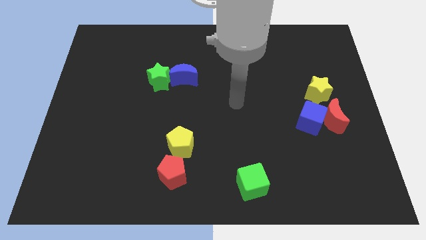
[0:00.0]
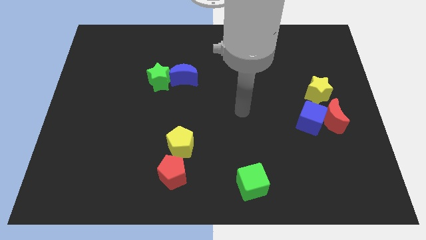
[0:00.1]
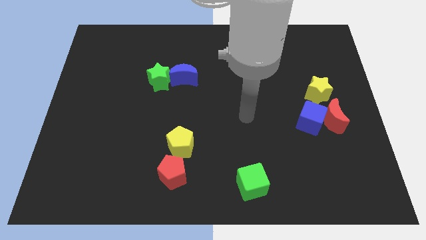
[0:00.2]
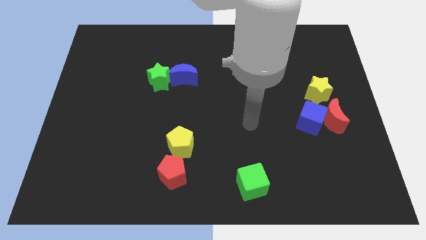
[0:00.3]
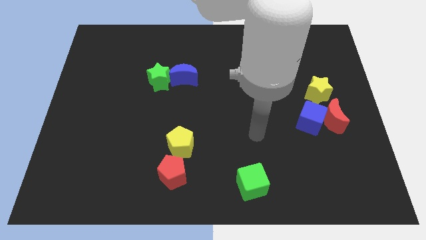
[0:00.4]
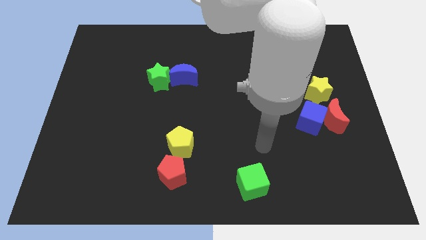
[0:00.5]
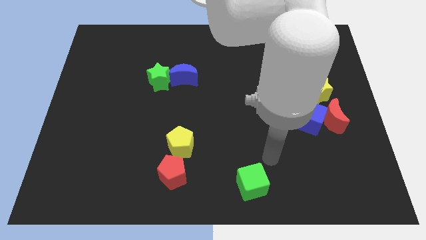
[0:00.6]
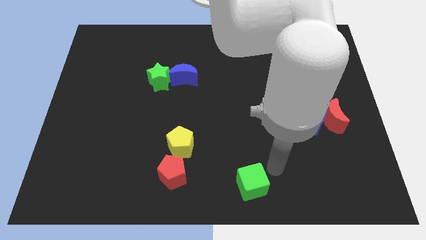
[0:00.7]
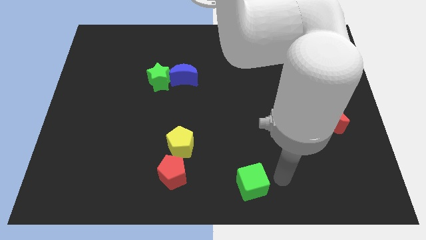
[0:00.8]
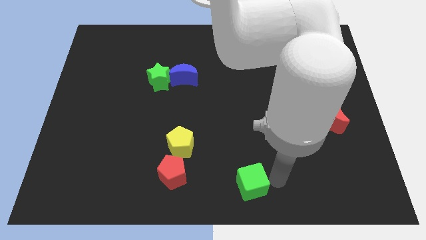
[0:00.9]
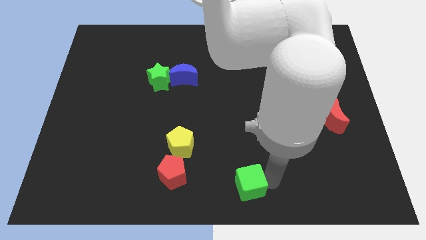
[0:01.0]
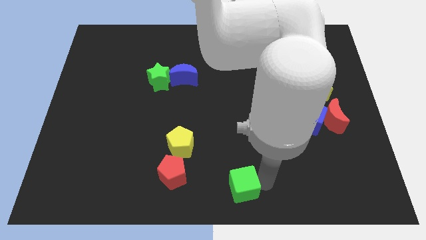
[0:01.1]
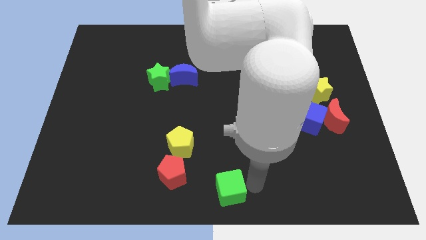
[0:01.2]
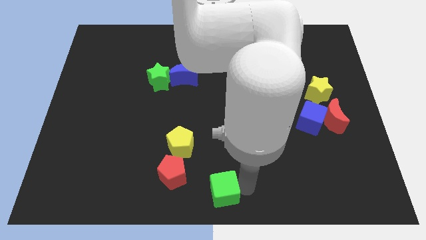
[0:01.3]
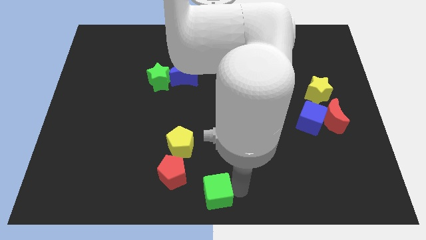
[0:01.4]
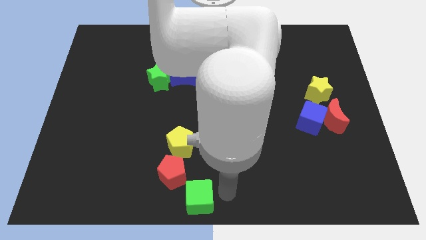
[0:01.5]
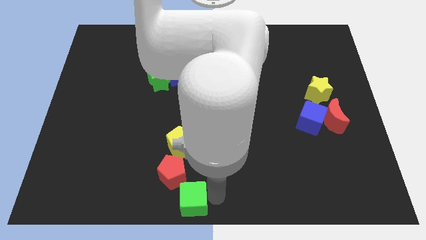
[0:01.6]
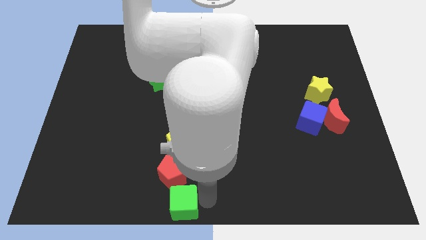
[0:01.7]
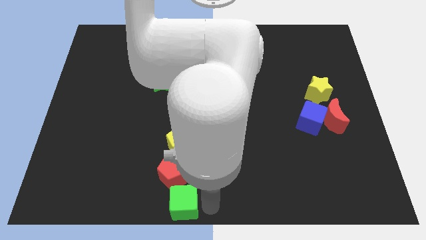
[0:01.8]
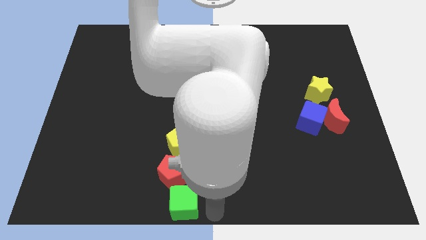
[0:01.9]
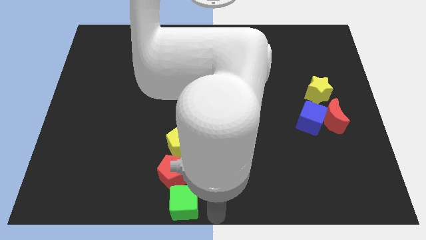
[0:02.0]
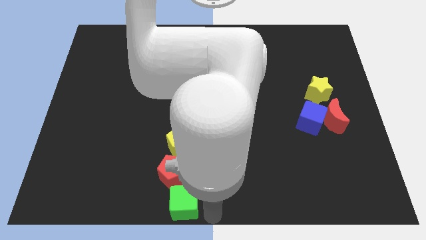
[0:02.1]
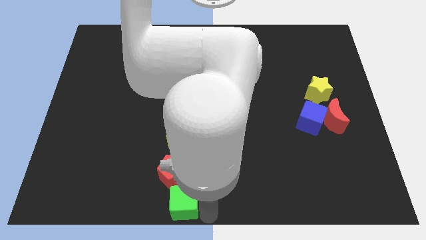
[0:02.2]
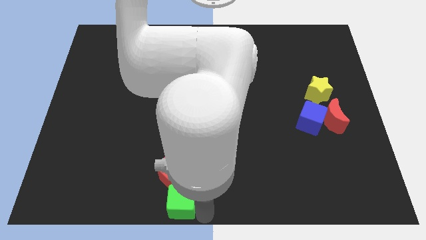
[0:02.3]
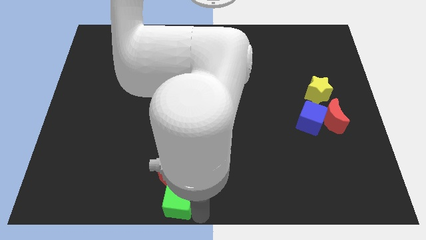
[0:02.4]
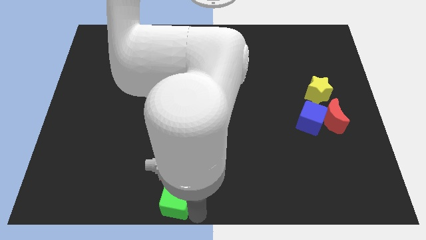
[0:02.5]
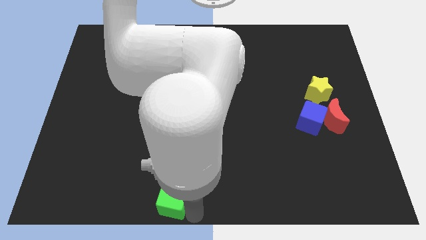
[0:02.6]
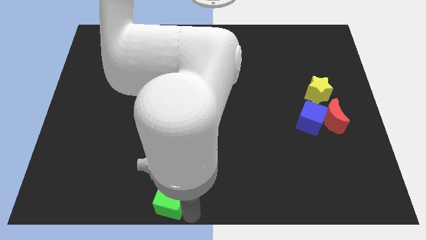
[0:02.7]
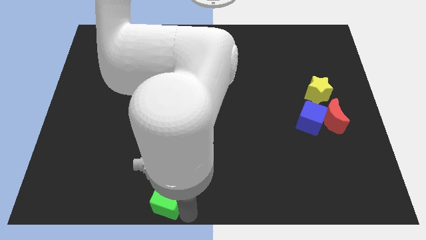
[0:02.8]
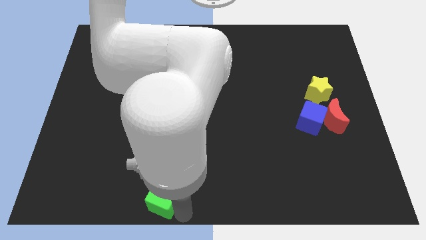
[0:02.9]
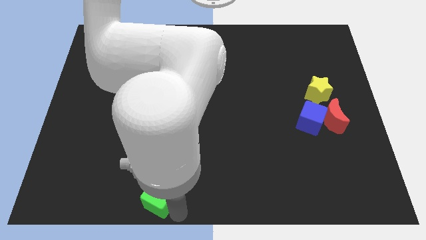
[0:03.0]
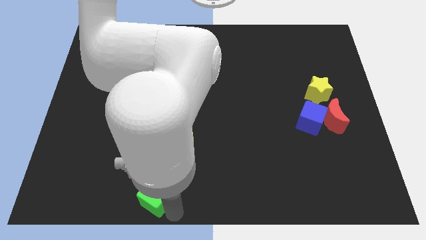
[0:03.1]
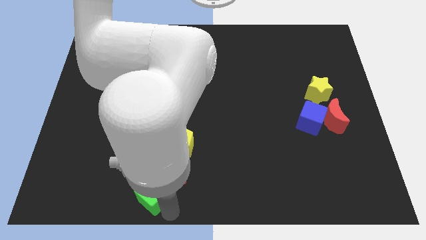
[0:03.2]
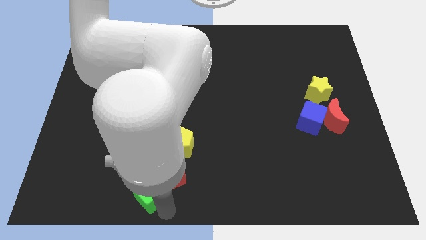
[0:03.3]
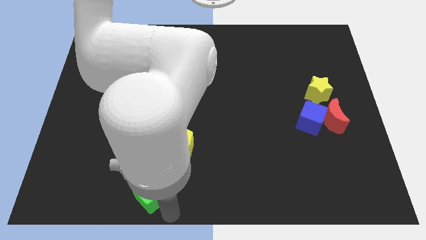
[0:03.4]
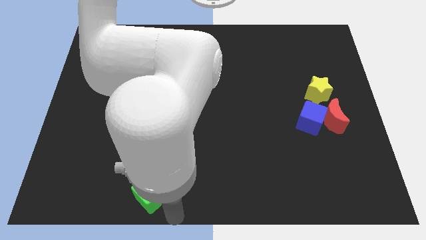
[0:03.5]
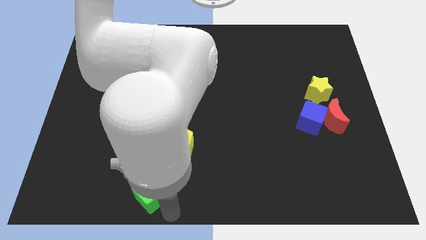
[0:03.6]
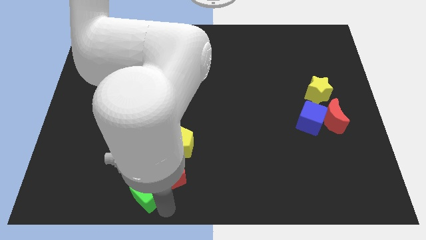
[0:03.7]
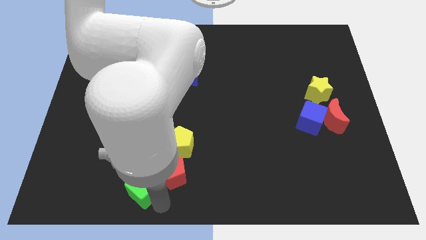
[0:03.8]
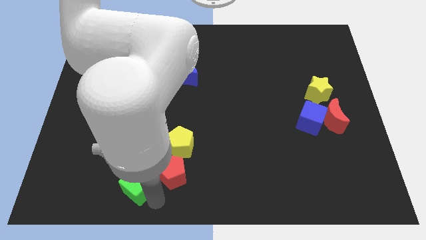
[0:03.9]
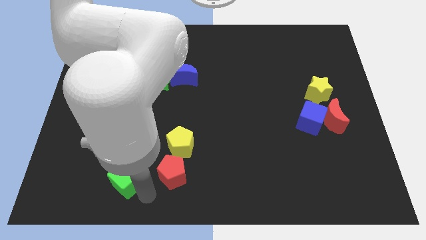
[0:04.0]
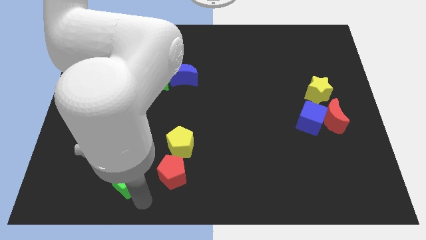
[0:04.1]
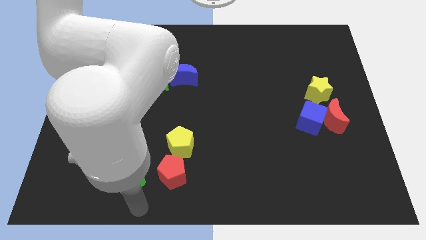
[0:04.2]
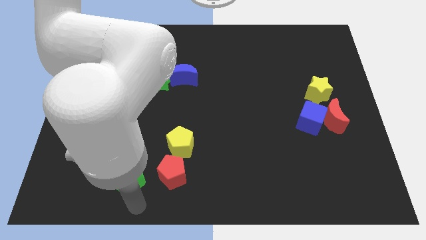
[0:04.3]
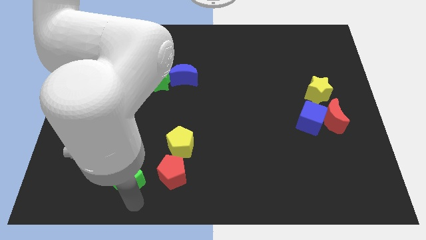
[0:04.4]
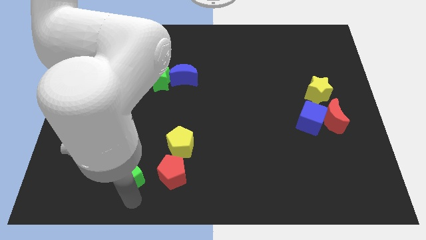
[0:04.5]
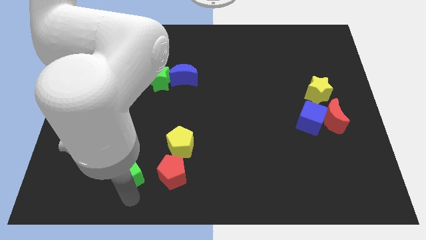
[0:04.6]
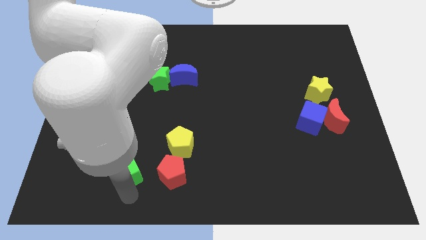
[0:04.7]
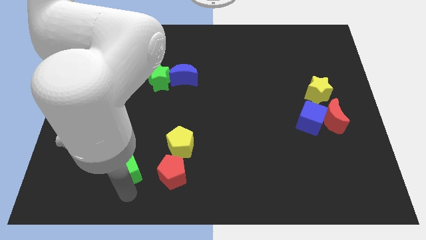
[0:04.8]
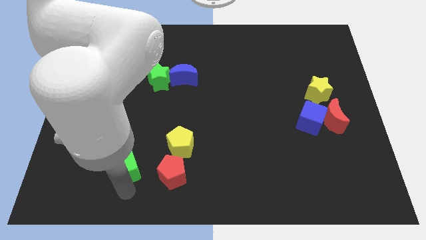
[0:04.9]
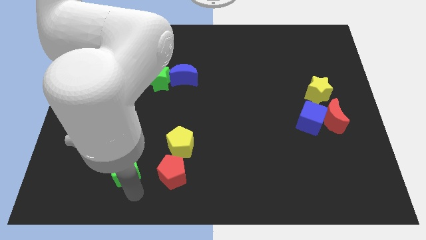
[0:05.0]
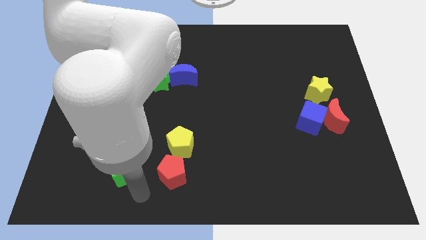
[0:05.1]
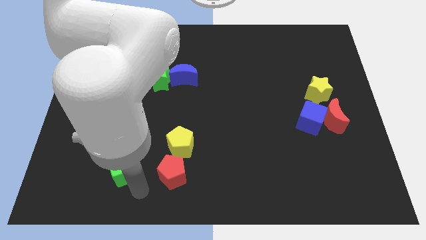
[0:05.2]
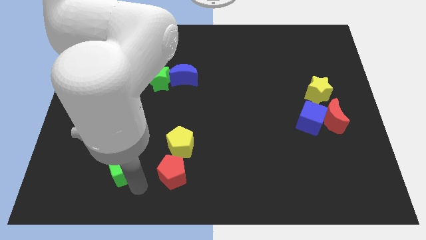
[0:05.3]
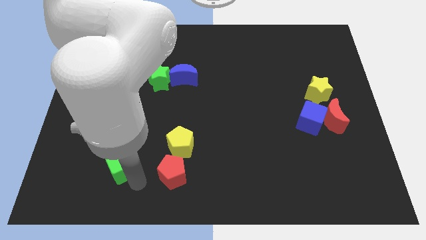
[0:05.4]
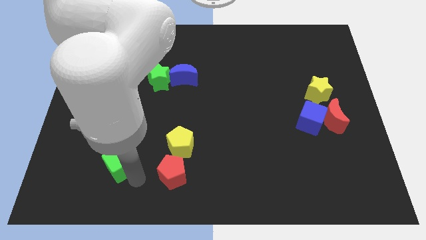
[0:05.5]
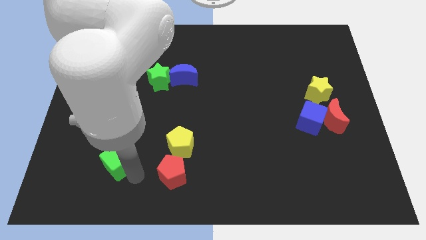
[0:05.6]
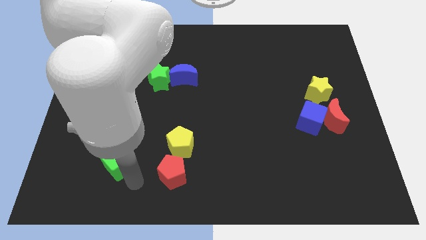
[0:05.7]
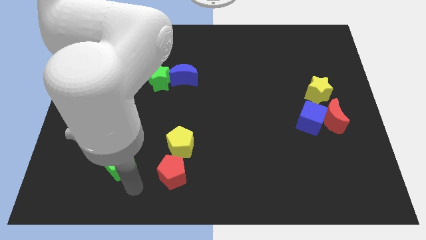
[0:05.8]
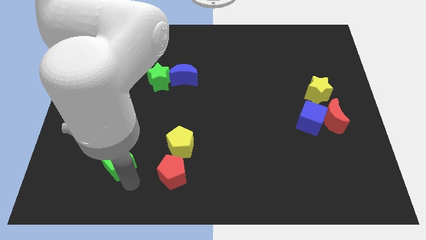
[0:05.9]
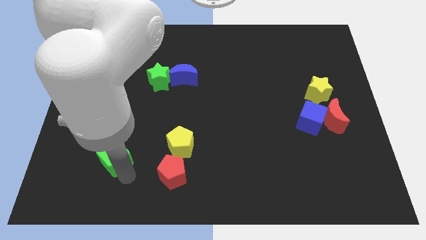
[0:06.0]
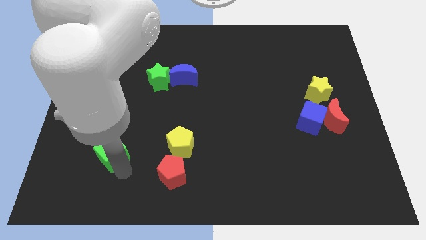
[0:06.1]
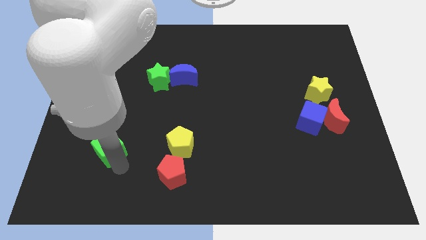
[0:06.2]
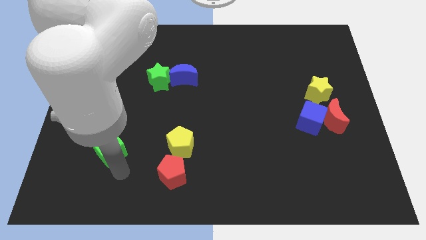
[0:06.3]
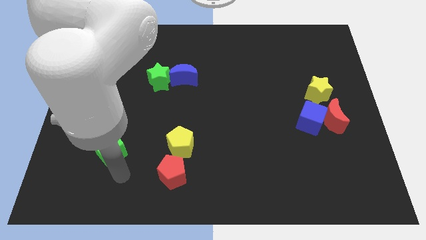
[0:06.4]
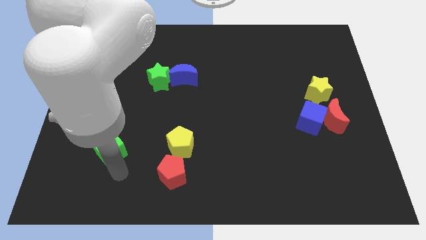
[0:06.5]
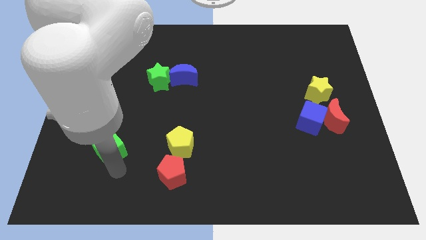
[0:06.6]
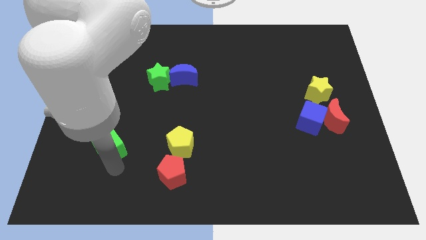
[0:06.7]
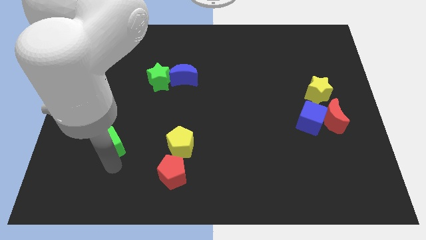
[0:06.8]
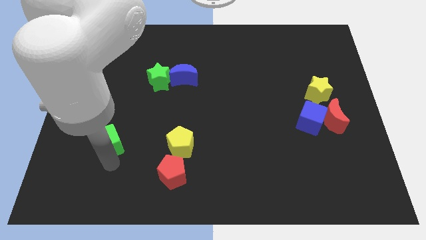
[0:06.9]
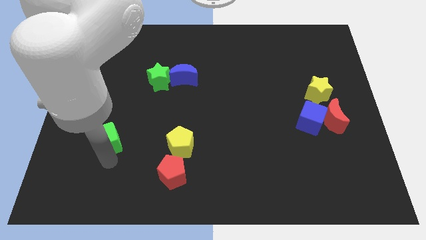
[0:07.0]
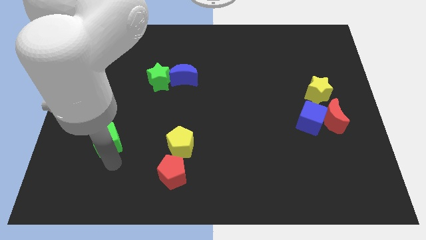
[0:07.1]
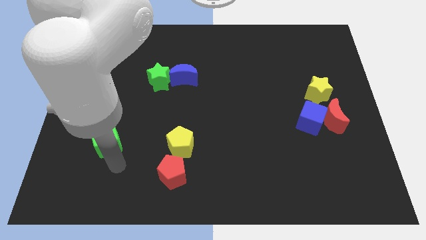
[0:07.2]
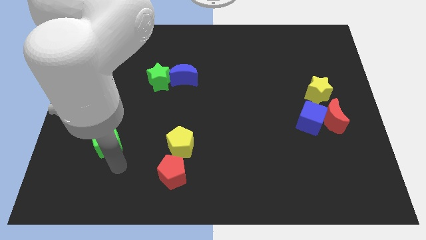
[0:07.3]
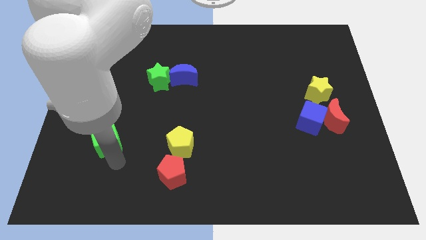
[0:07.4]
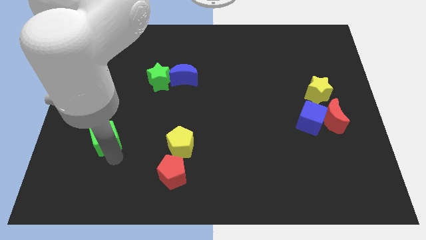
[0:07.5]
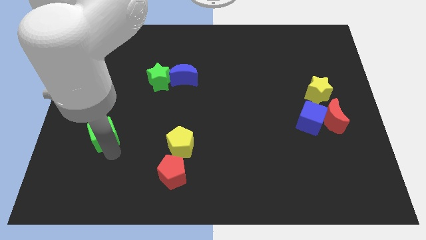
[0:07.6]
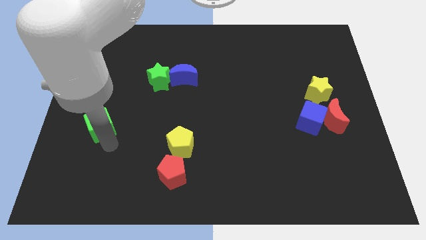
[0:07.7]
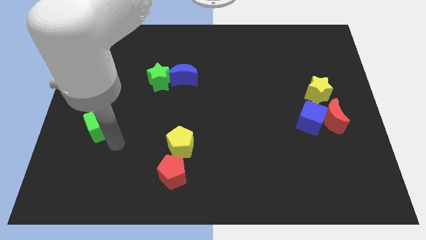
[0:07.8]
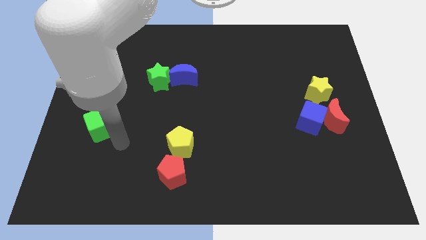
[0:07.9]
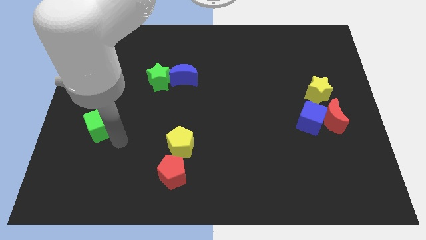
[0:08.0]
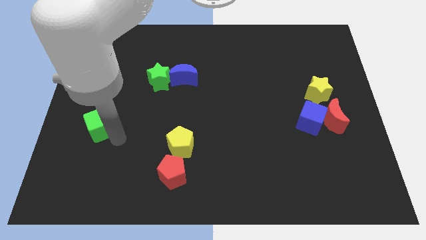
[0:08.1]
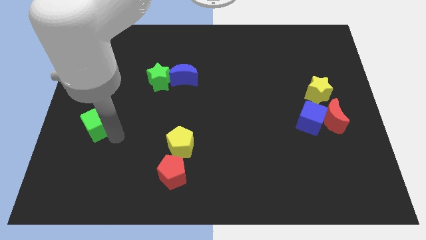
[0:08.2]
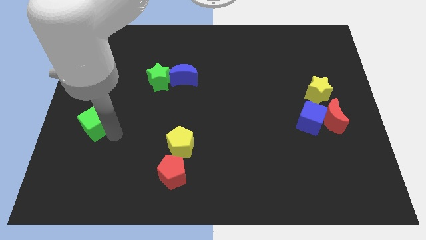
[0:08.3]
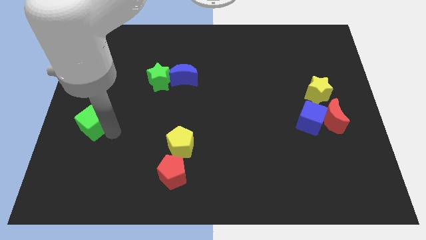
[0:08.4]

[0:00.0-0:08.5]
slide the green cube to the left side of the board
